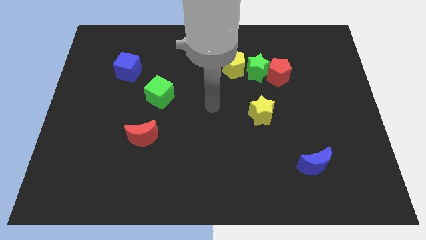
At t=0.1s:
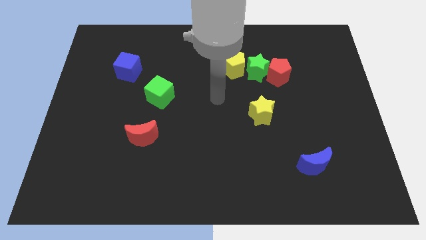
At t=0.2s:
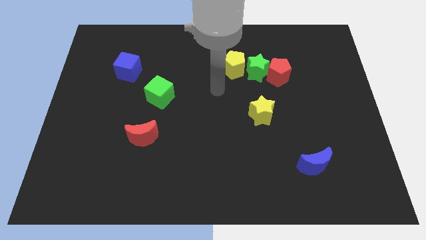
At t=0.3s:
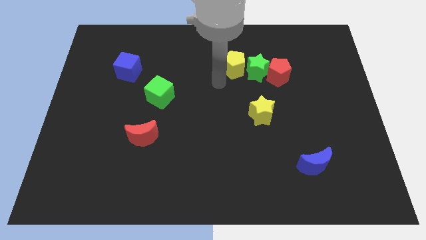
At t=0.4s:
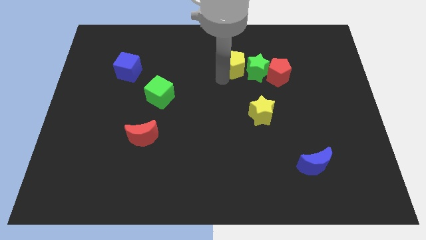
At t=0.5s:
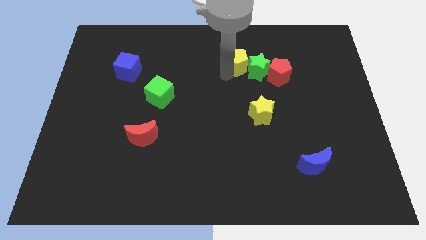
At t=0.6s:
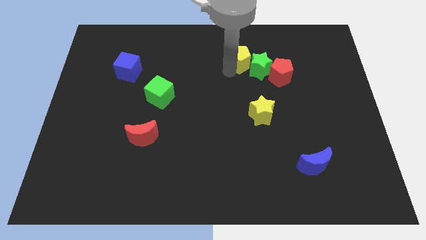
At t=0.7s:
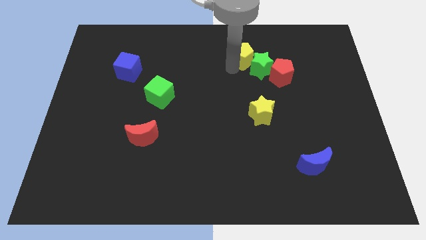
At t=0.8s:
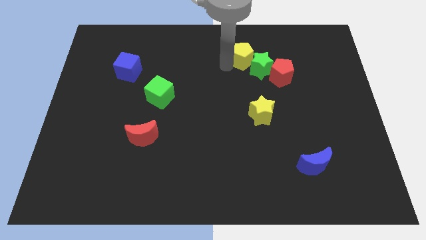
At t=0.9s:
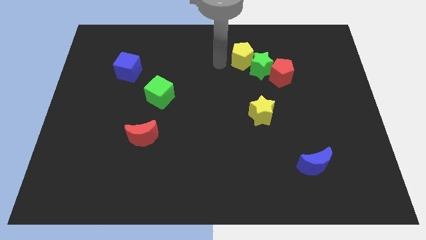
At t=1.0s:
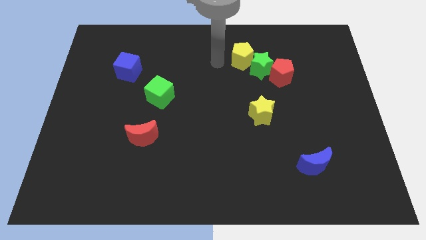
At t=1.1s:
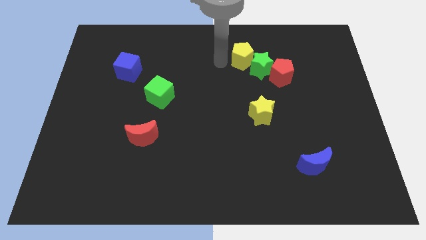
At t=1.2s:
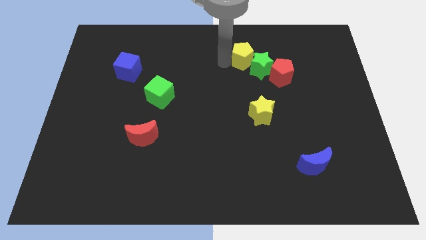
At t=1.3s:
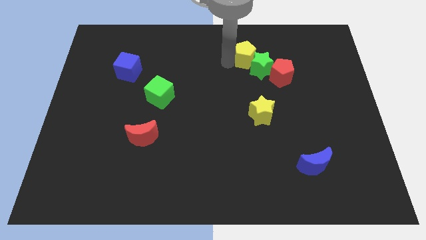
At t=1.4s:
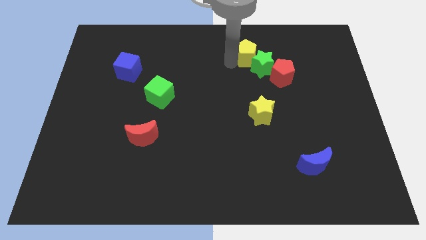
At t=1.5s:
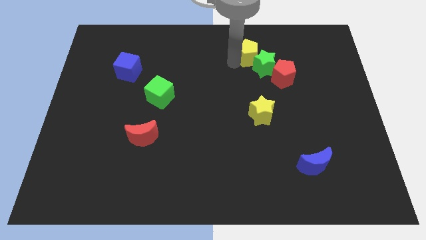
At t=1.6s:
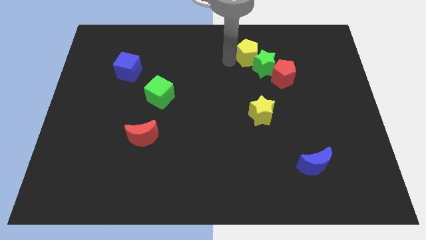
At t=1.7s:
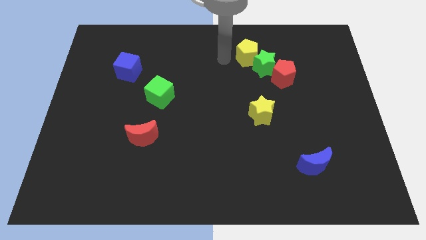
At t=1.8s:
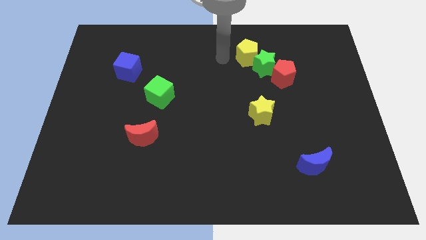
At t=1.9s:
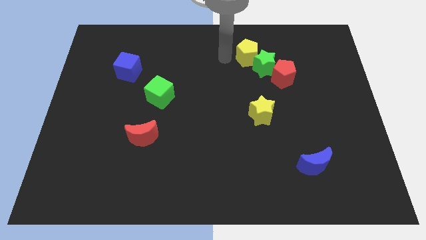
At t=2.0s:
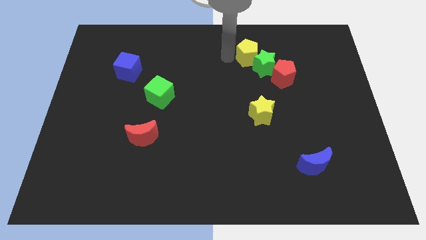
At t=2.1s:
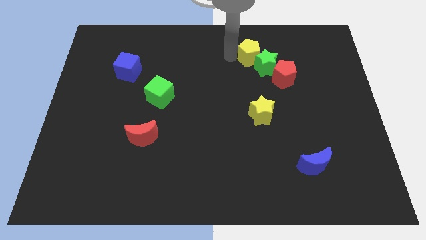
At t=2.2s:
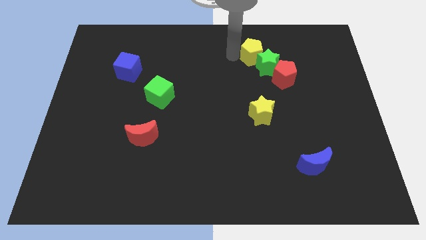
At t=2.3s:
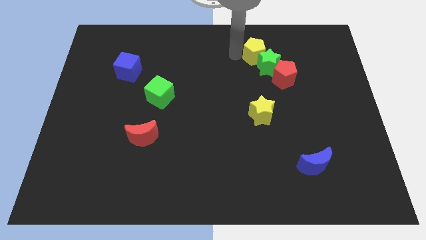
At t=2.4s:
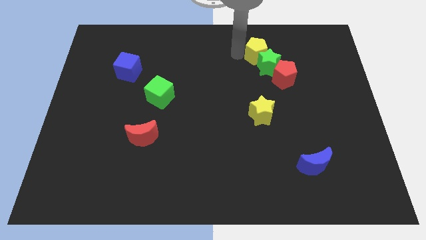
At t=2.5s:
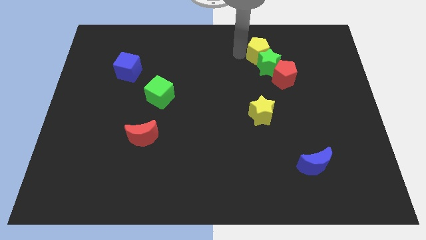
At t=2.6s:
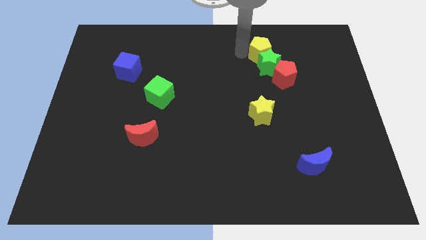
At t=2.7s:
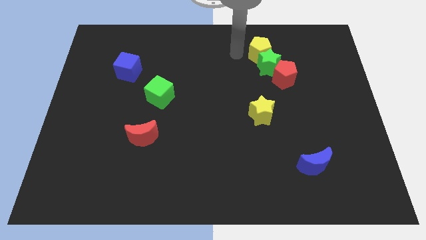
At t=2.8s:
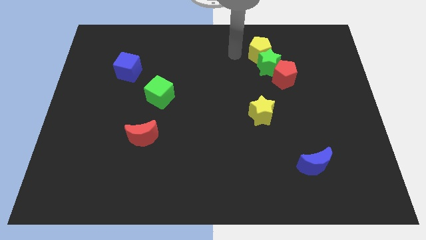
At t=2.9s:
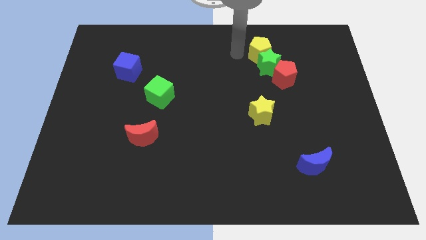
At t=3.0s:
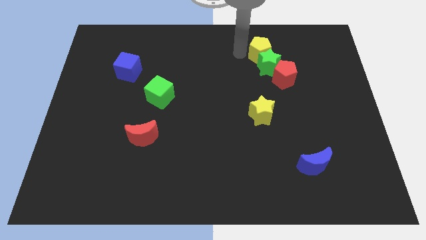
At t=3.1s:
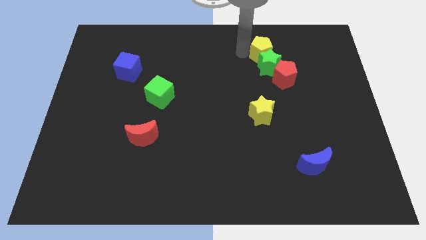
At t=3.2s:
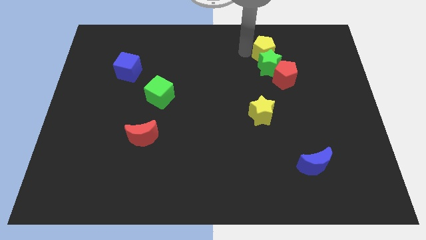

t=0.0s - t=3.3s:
slide the yellow pentagon to the right somewhat

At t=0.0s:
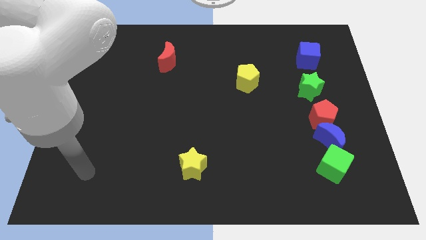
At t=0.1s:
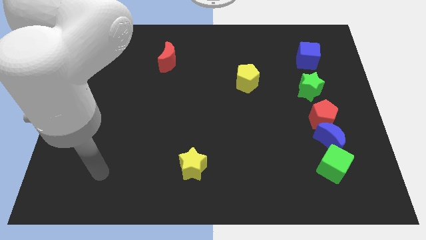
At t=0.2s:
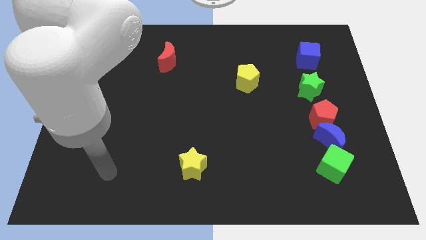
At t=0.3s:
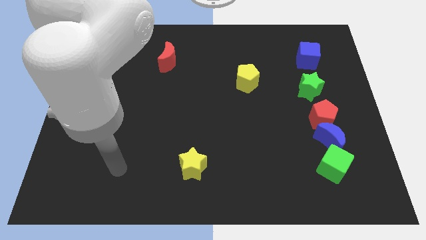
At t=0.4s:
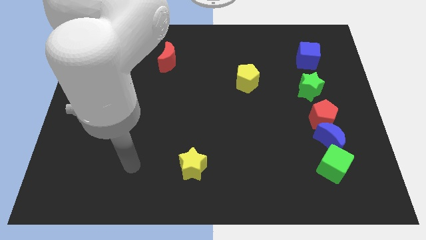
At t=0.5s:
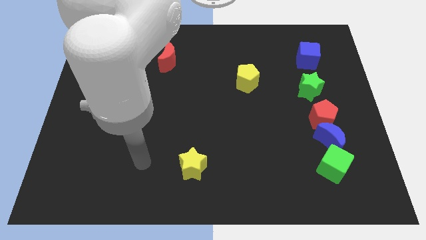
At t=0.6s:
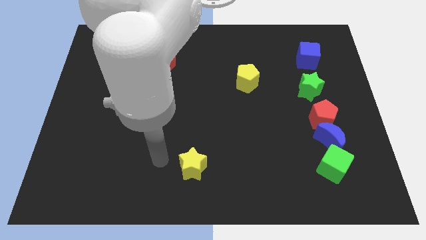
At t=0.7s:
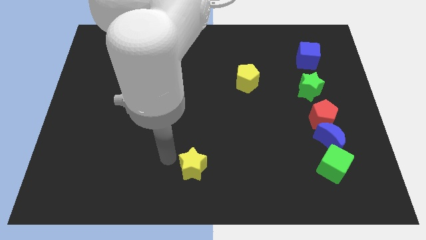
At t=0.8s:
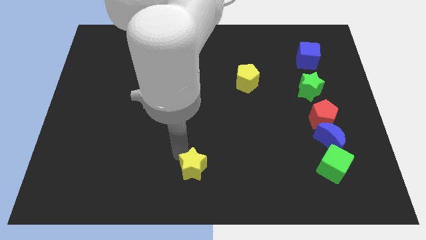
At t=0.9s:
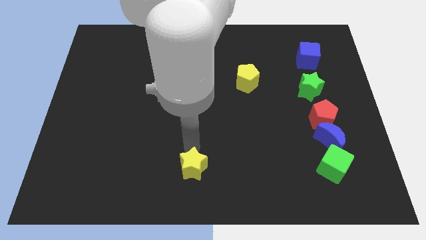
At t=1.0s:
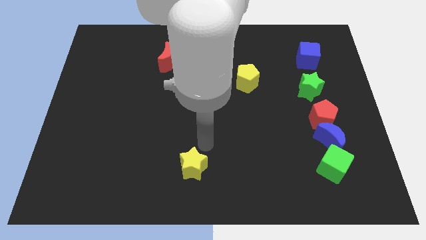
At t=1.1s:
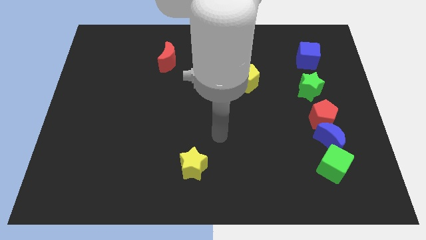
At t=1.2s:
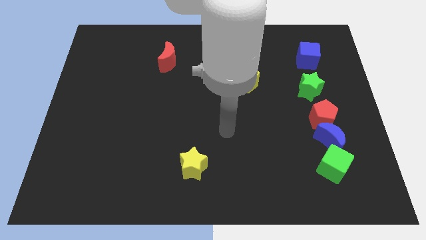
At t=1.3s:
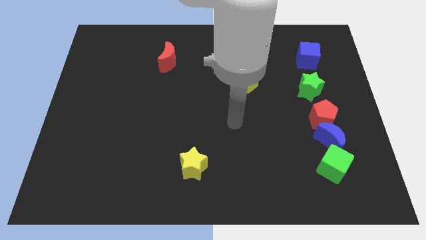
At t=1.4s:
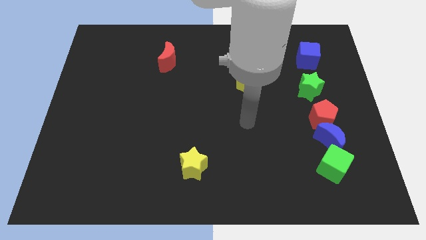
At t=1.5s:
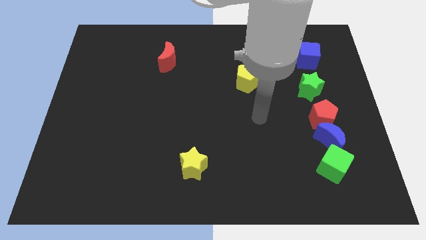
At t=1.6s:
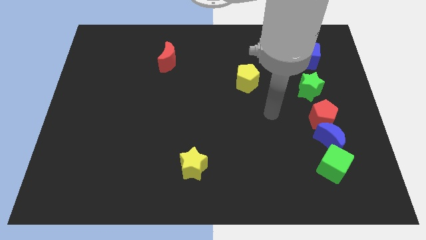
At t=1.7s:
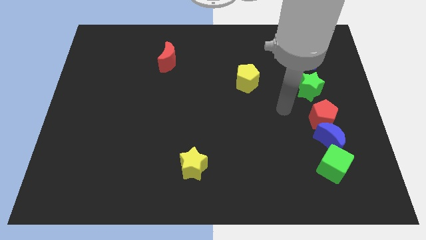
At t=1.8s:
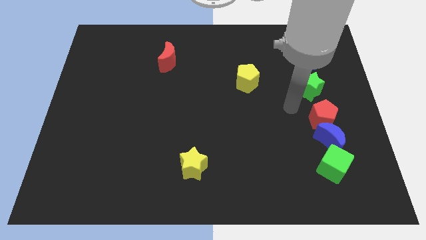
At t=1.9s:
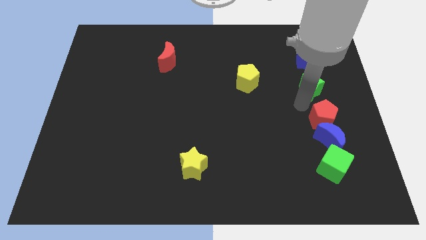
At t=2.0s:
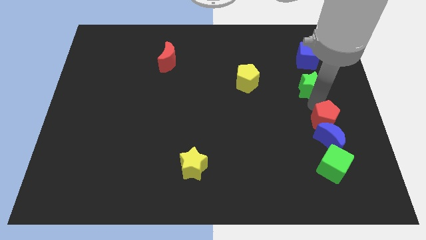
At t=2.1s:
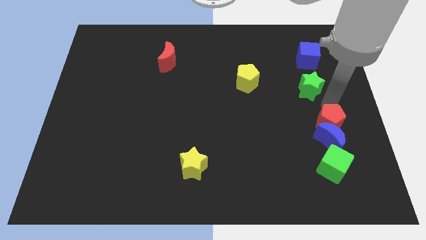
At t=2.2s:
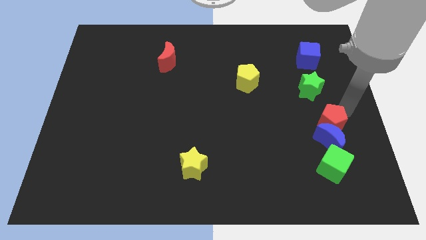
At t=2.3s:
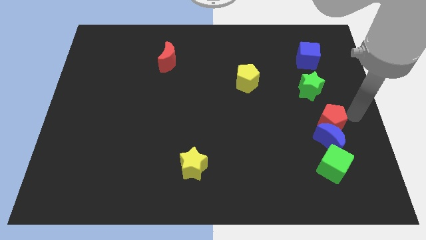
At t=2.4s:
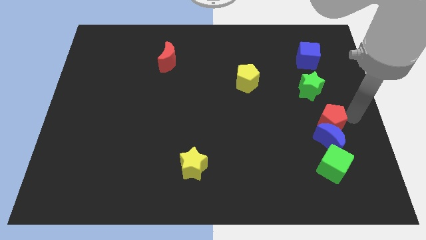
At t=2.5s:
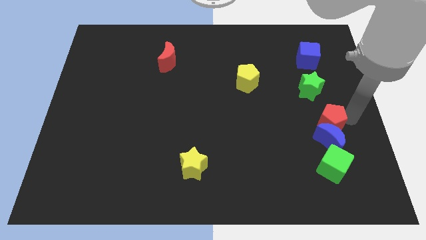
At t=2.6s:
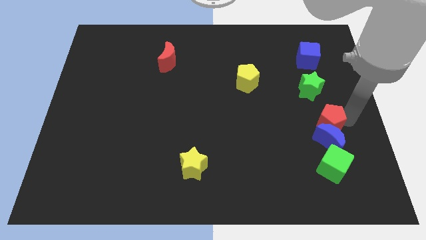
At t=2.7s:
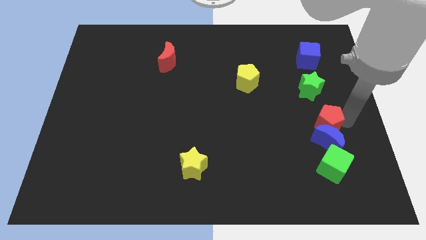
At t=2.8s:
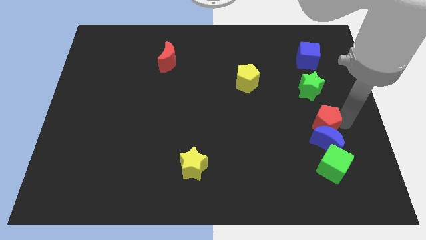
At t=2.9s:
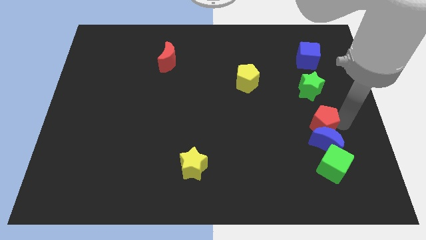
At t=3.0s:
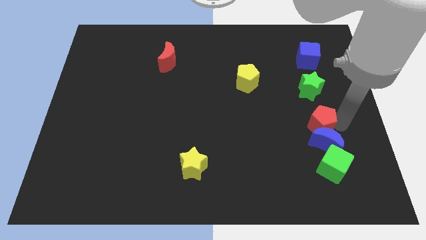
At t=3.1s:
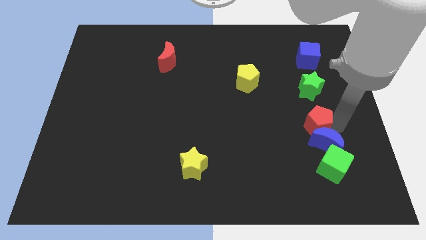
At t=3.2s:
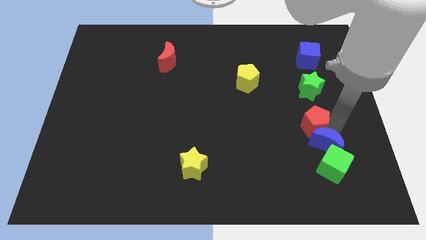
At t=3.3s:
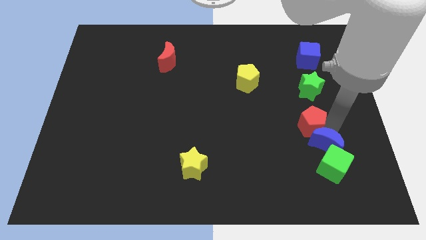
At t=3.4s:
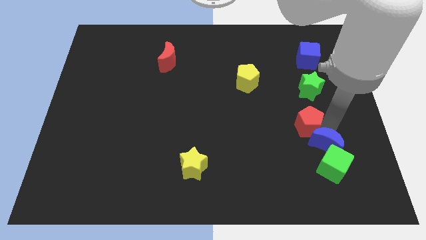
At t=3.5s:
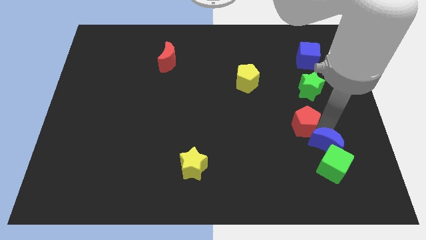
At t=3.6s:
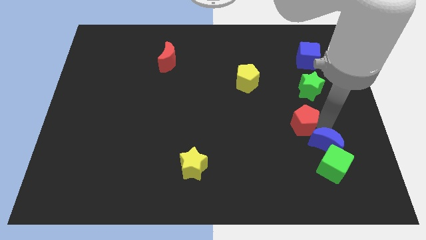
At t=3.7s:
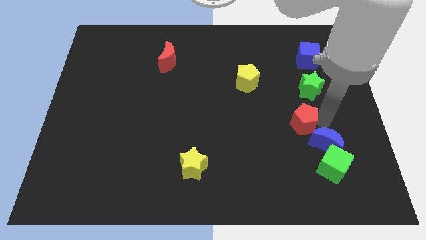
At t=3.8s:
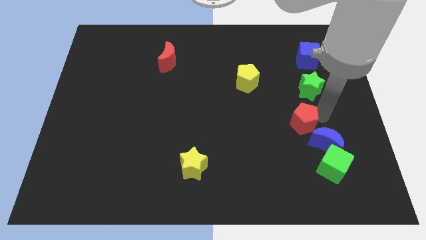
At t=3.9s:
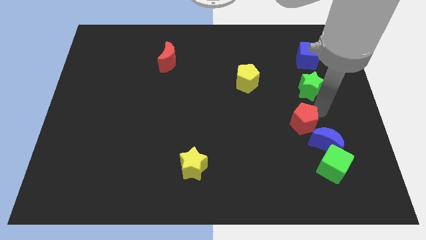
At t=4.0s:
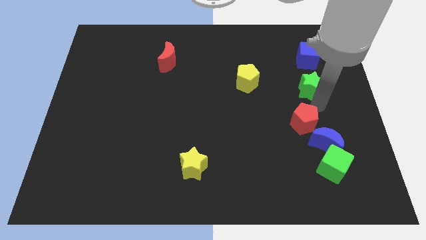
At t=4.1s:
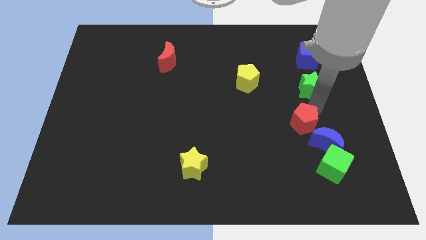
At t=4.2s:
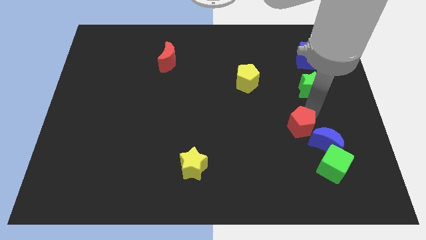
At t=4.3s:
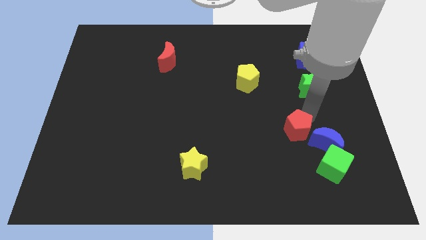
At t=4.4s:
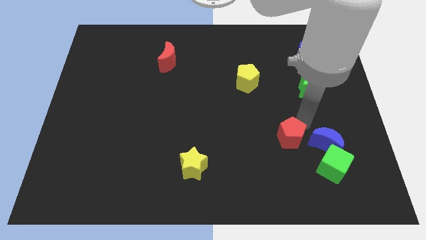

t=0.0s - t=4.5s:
slide the red pentagon downwards and then to the left a little bit
